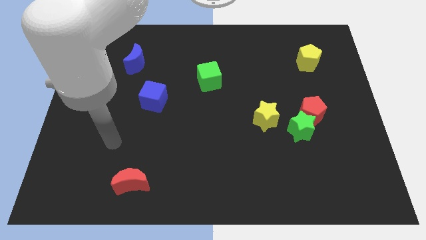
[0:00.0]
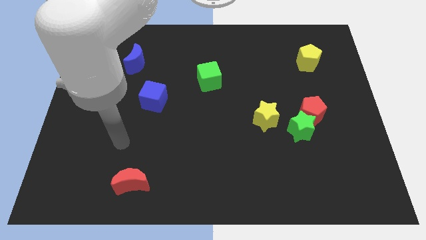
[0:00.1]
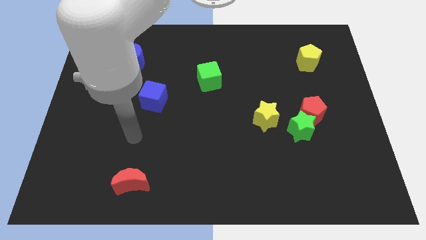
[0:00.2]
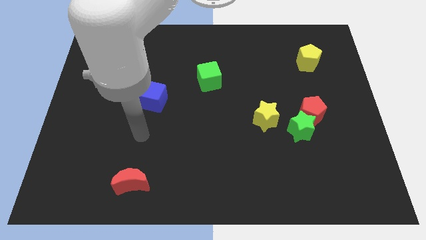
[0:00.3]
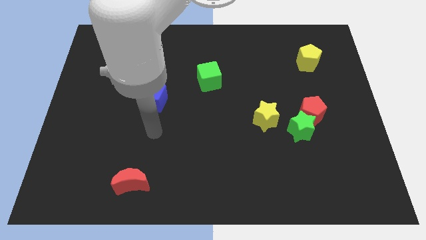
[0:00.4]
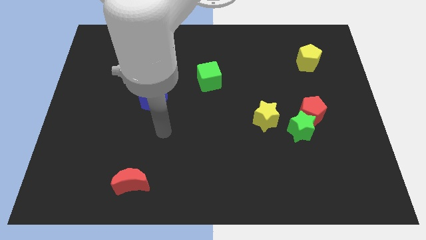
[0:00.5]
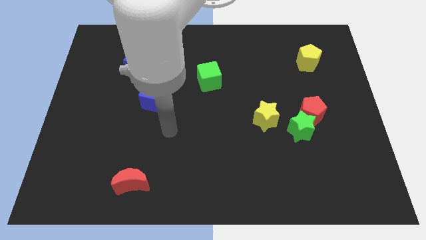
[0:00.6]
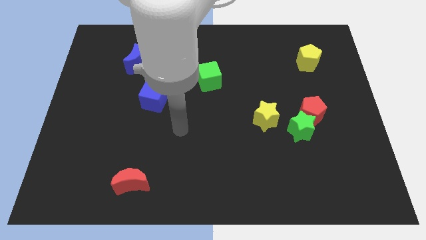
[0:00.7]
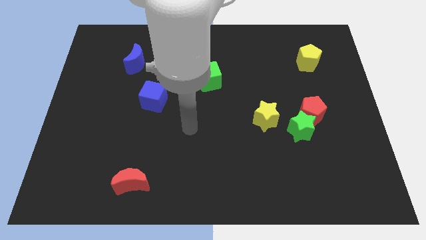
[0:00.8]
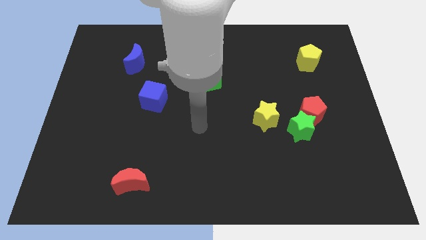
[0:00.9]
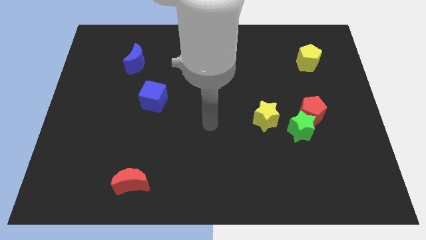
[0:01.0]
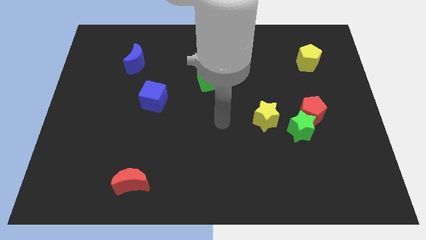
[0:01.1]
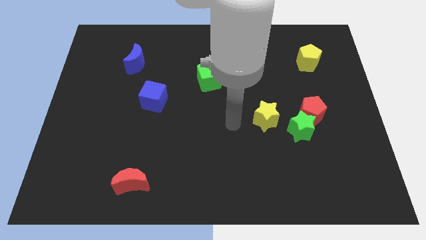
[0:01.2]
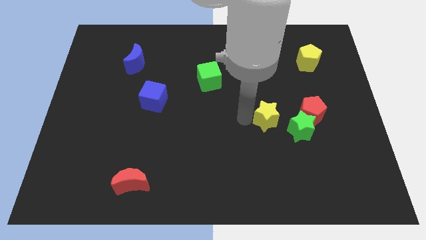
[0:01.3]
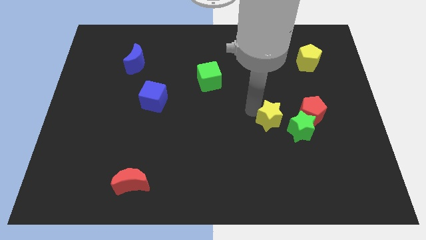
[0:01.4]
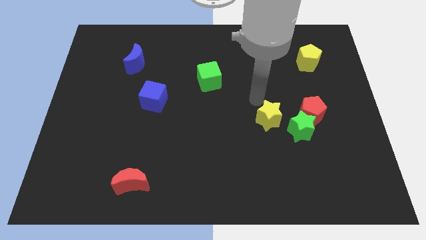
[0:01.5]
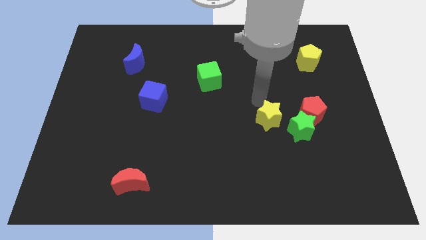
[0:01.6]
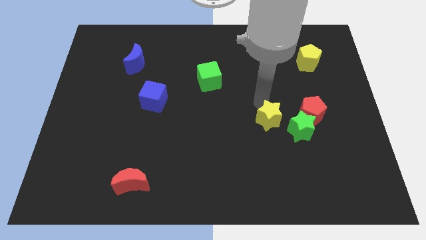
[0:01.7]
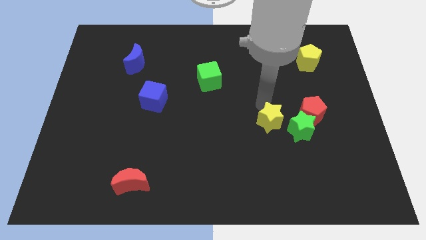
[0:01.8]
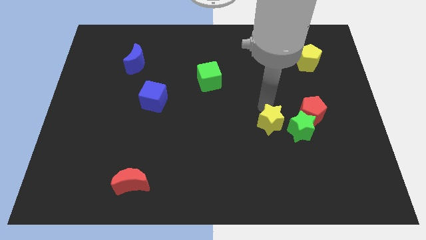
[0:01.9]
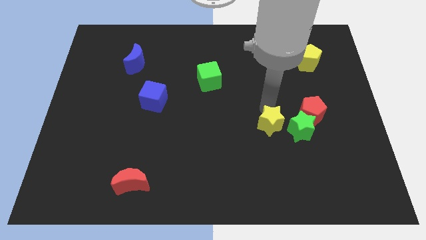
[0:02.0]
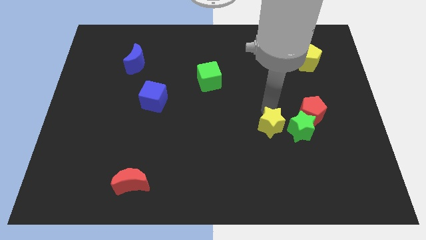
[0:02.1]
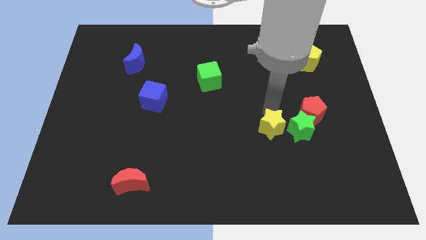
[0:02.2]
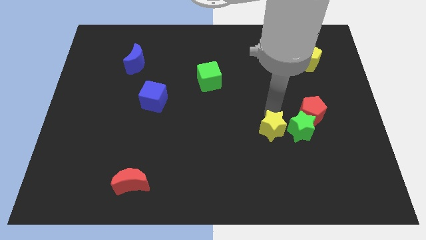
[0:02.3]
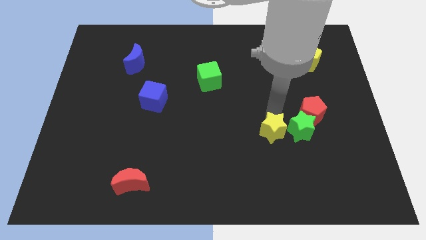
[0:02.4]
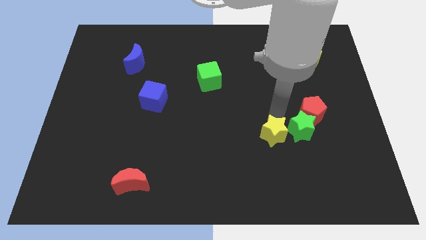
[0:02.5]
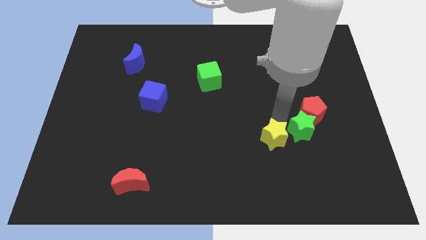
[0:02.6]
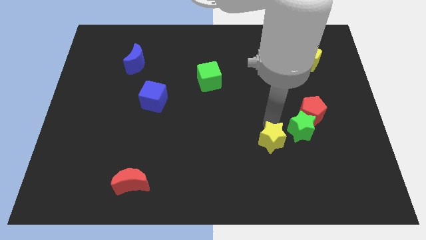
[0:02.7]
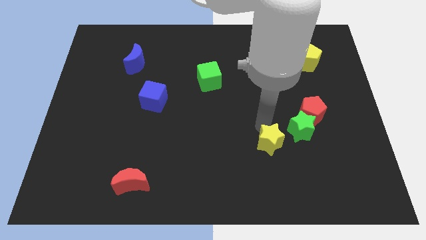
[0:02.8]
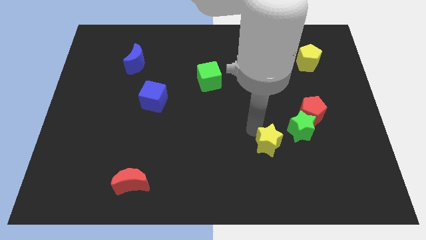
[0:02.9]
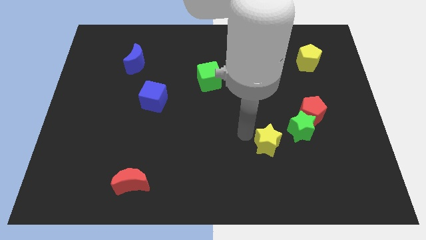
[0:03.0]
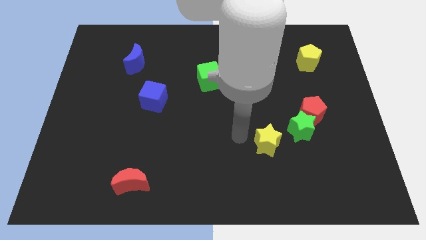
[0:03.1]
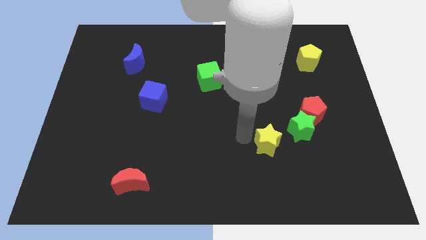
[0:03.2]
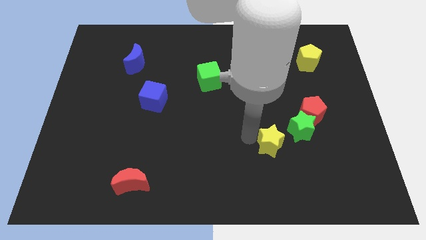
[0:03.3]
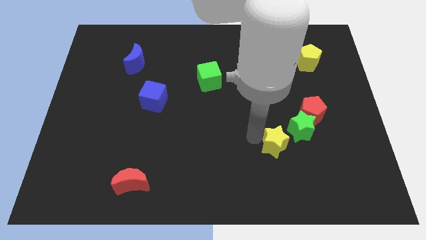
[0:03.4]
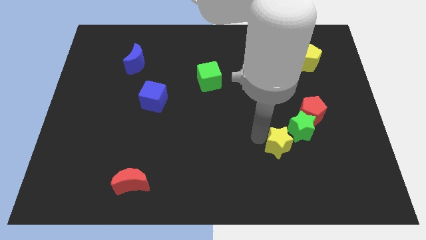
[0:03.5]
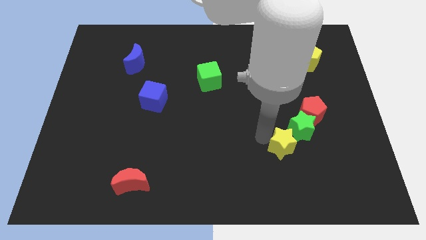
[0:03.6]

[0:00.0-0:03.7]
move the yellow star downwards and then to the right a little

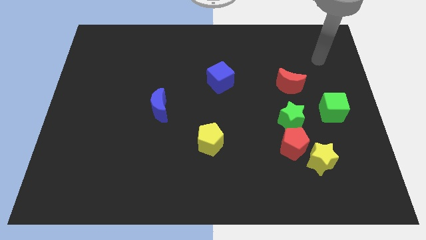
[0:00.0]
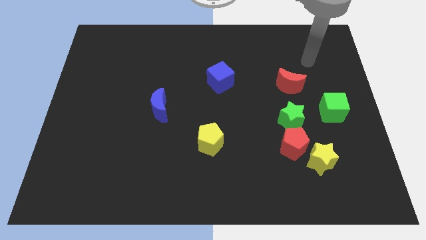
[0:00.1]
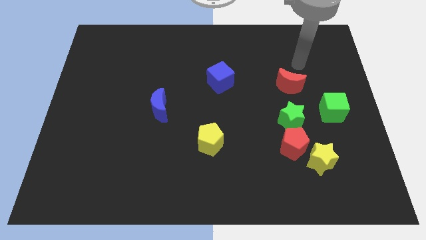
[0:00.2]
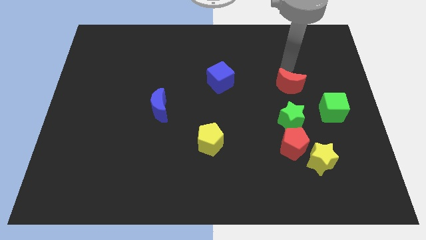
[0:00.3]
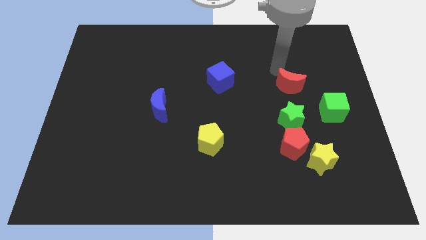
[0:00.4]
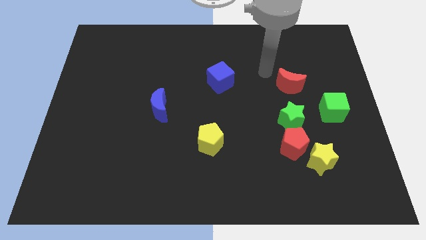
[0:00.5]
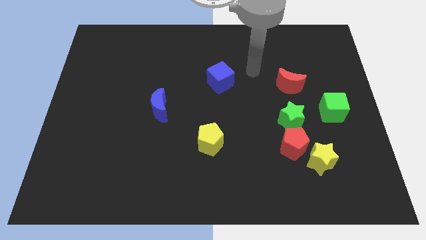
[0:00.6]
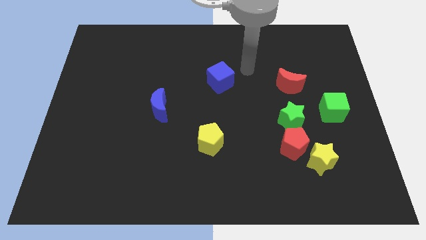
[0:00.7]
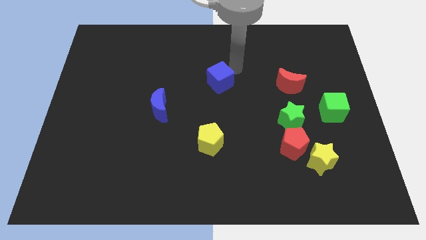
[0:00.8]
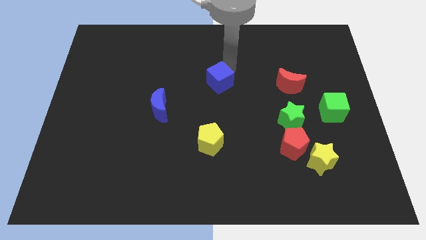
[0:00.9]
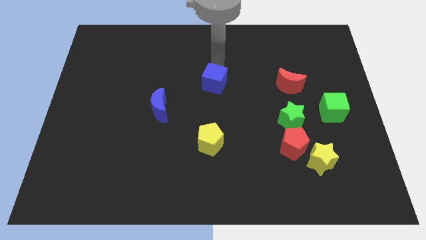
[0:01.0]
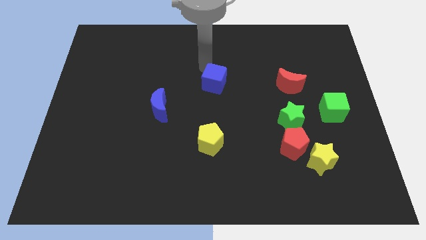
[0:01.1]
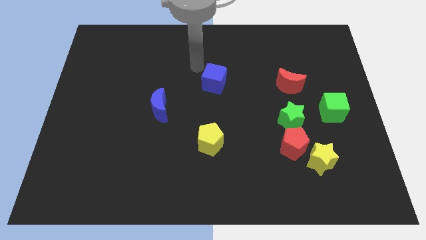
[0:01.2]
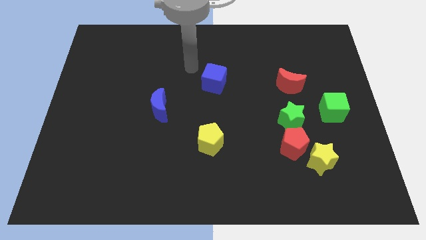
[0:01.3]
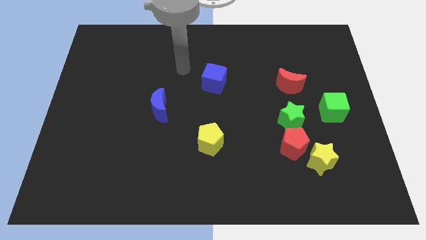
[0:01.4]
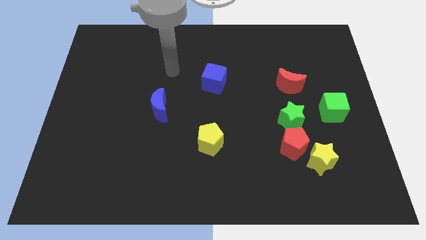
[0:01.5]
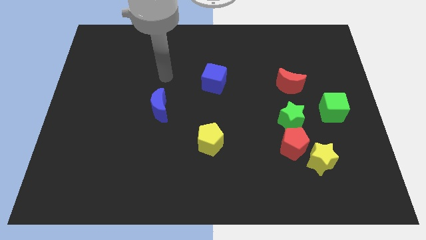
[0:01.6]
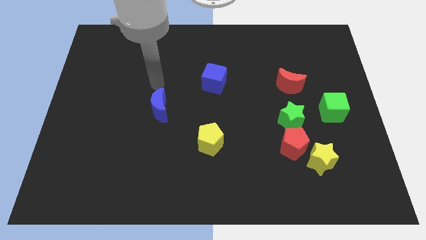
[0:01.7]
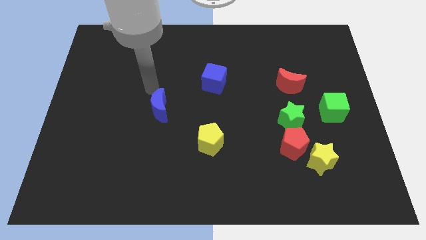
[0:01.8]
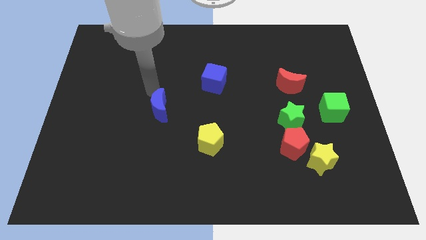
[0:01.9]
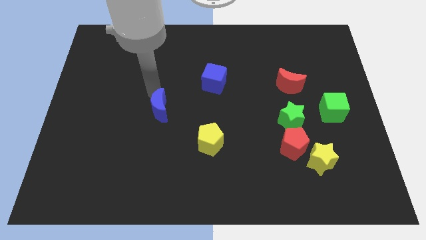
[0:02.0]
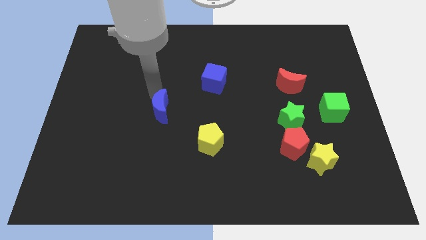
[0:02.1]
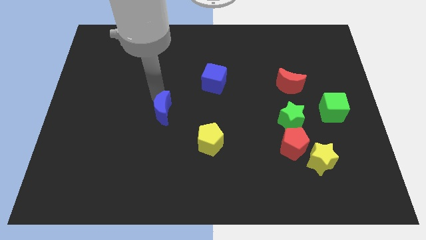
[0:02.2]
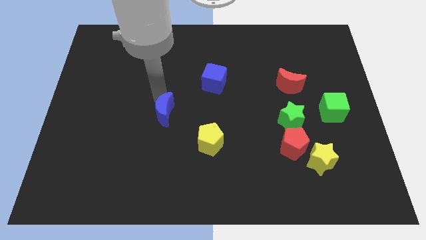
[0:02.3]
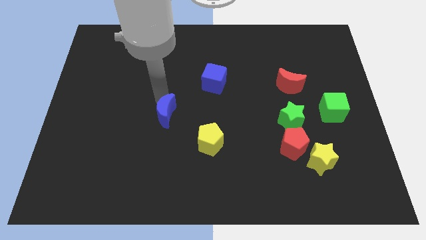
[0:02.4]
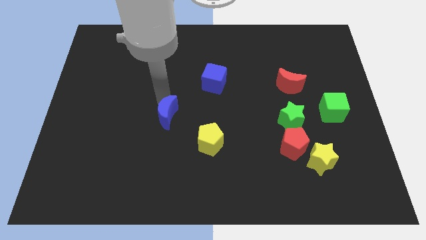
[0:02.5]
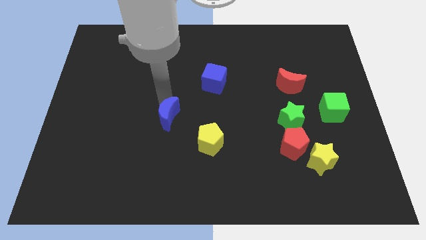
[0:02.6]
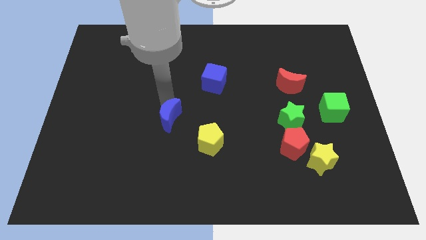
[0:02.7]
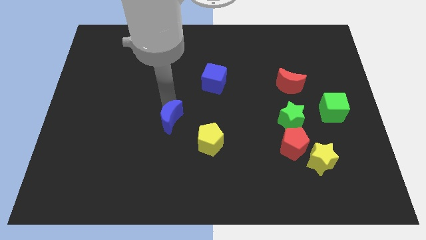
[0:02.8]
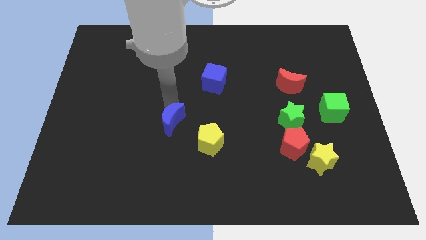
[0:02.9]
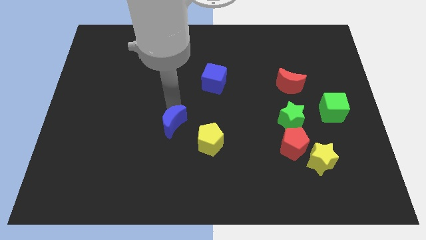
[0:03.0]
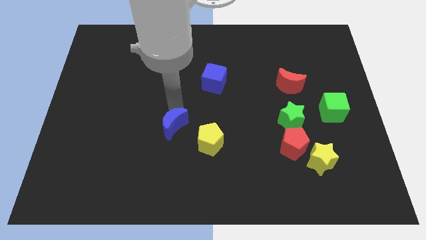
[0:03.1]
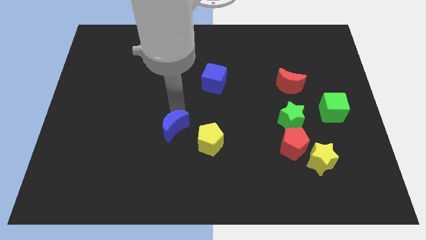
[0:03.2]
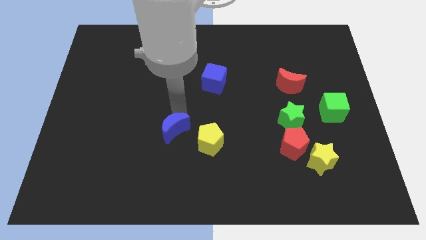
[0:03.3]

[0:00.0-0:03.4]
push the blue moon diagonally downwards and right somewhat

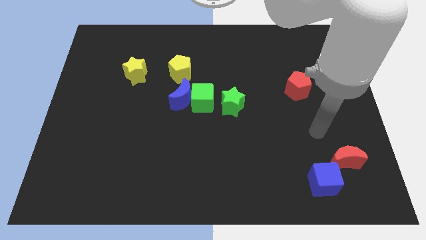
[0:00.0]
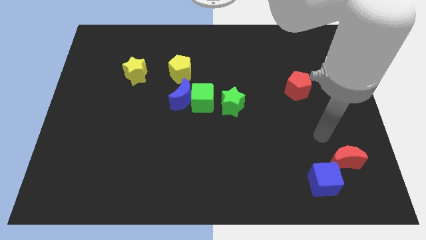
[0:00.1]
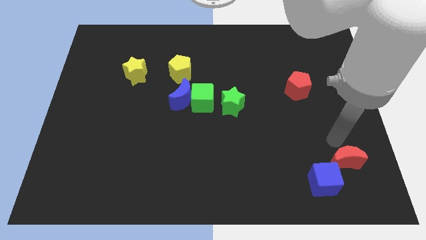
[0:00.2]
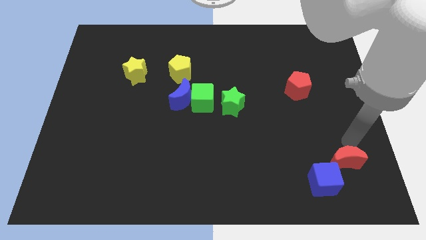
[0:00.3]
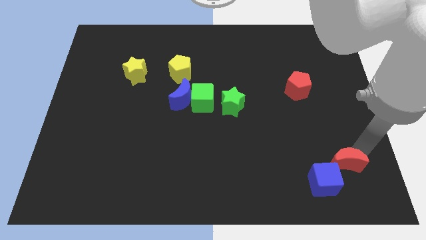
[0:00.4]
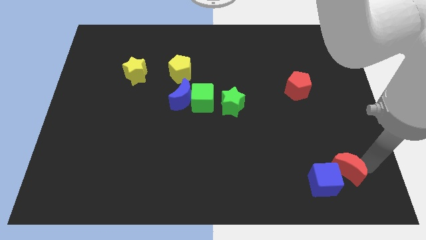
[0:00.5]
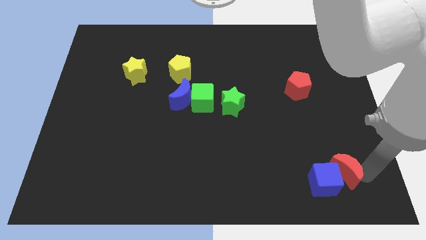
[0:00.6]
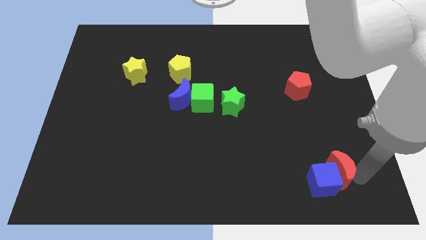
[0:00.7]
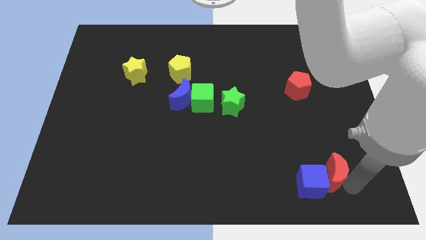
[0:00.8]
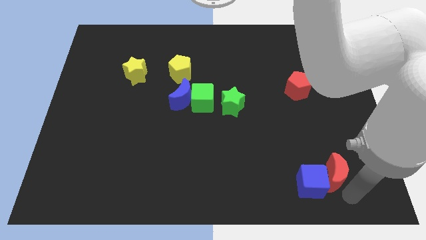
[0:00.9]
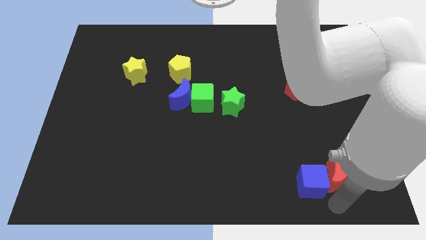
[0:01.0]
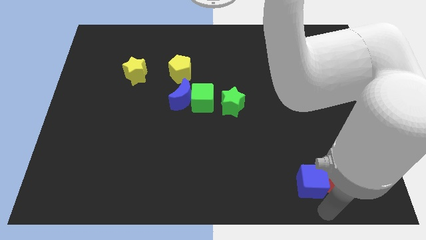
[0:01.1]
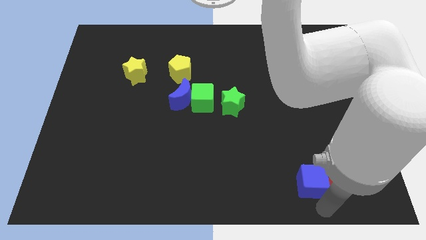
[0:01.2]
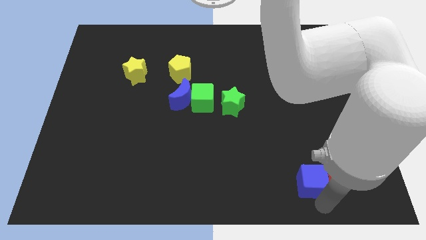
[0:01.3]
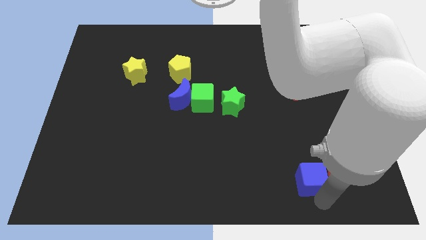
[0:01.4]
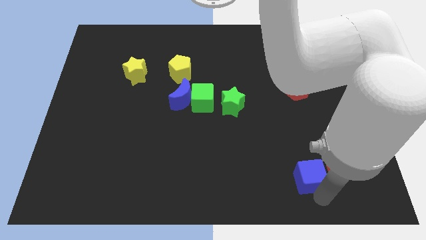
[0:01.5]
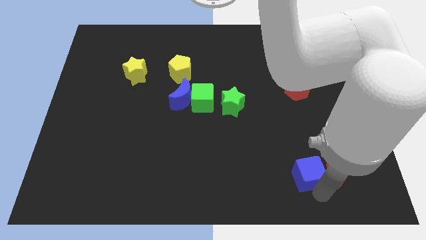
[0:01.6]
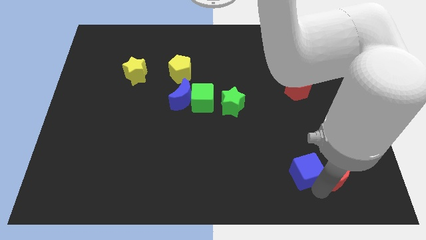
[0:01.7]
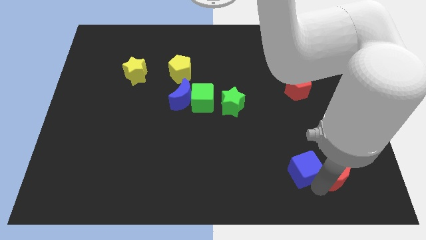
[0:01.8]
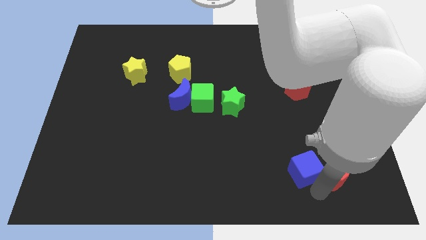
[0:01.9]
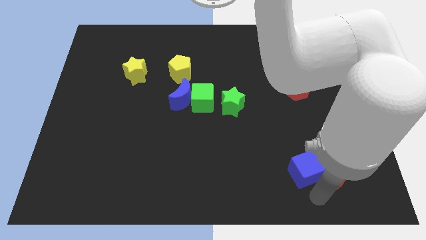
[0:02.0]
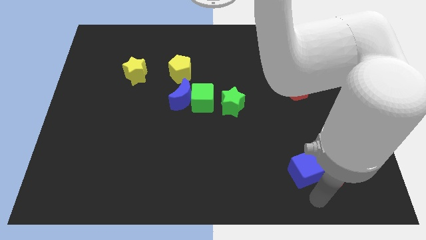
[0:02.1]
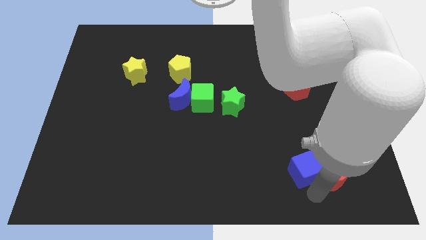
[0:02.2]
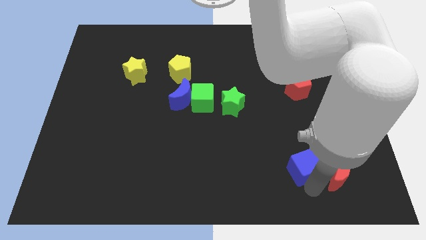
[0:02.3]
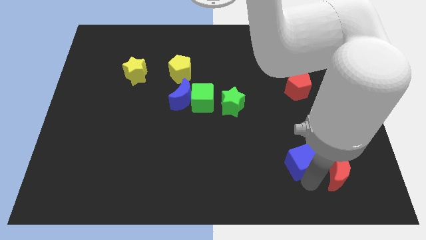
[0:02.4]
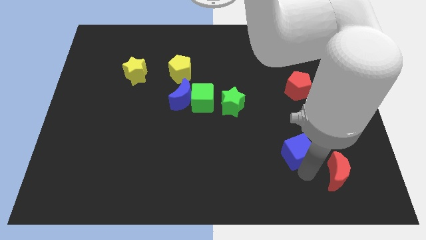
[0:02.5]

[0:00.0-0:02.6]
push the blue cube upwards and to the left a little
